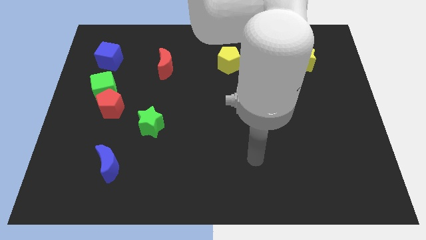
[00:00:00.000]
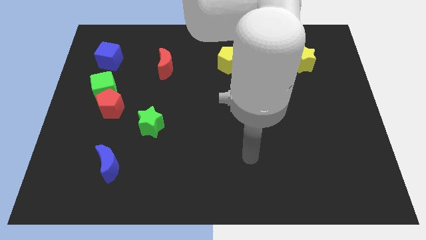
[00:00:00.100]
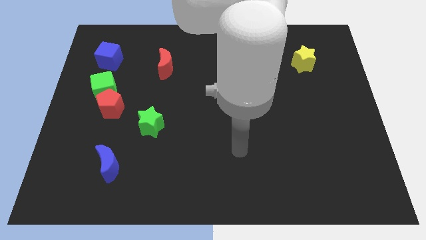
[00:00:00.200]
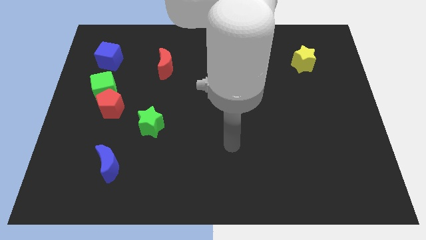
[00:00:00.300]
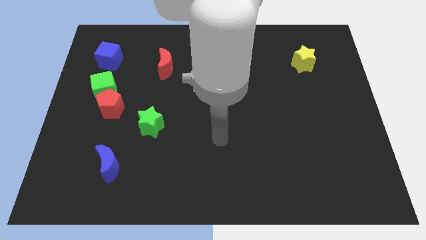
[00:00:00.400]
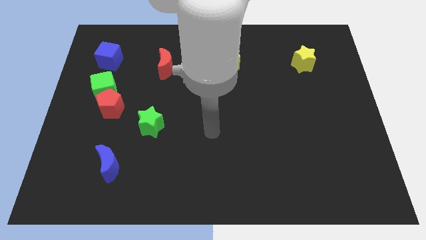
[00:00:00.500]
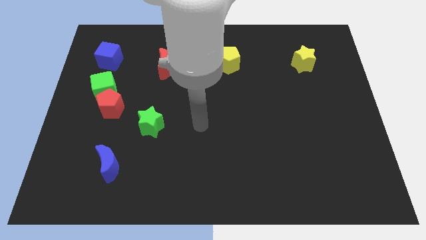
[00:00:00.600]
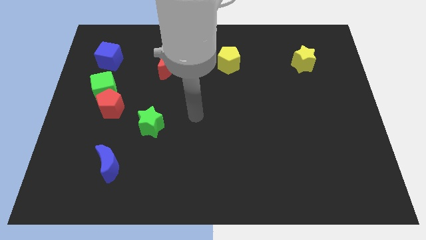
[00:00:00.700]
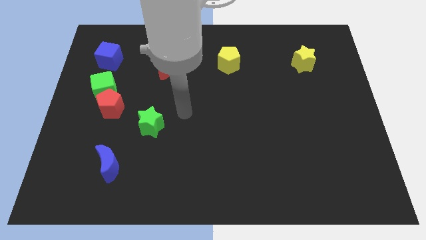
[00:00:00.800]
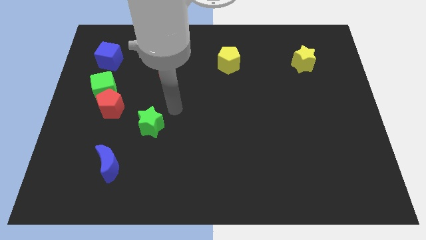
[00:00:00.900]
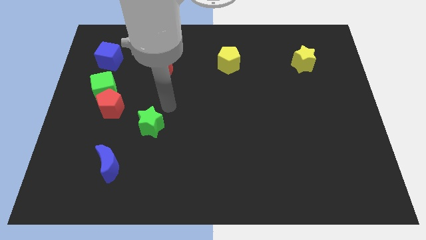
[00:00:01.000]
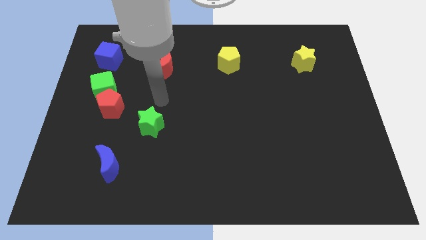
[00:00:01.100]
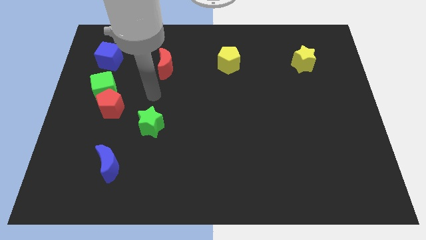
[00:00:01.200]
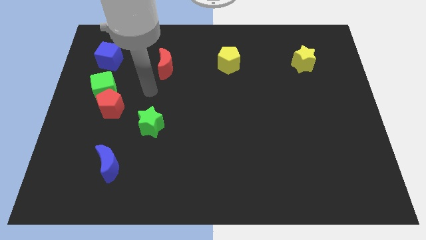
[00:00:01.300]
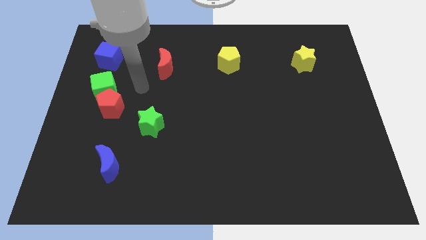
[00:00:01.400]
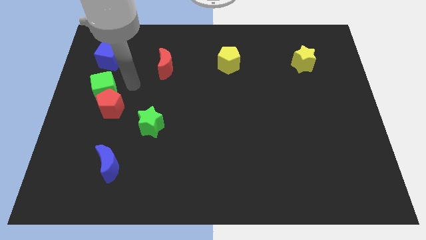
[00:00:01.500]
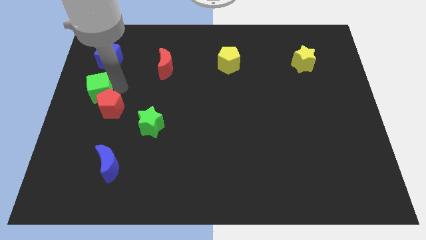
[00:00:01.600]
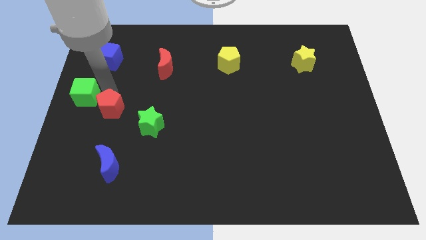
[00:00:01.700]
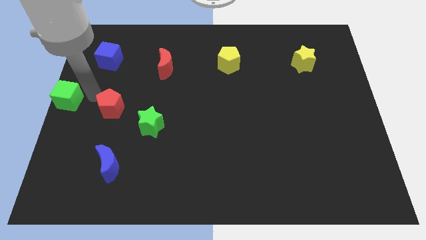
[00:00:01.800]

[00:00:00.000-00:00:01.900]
separate the red pentagon from the green cube

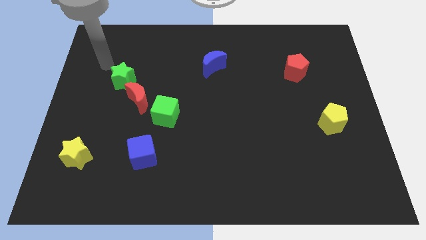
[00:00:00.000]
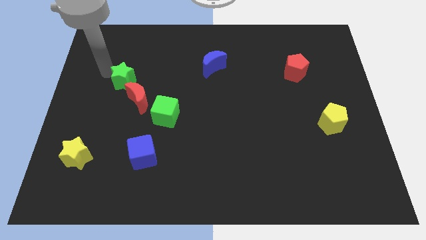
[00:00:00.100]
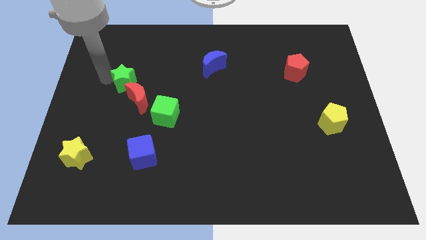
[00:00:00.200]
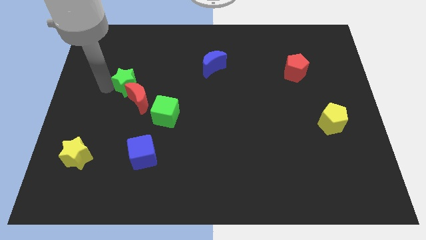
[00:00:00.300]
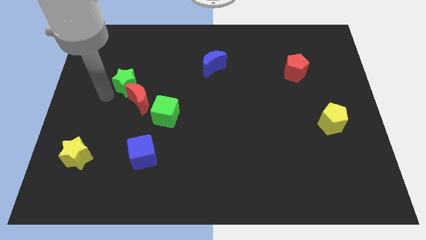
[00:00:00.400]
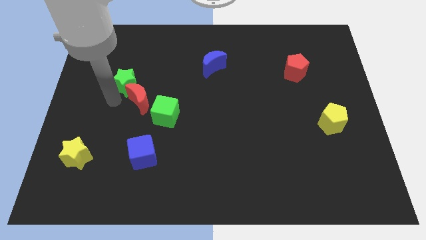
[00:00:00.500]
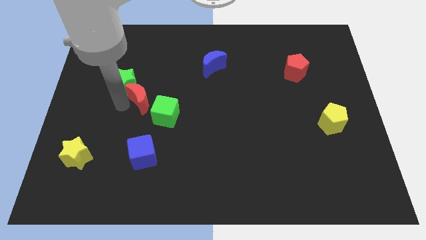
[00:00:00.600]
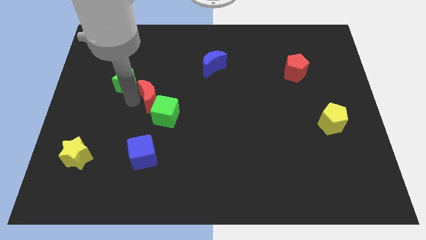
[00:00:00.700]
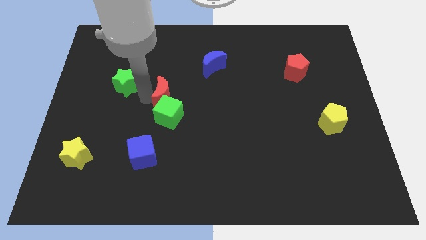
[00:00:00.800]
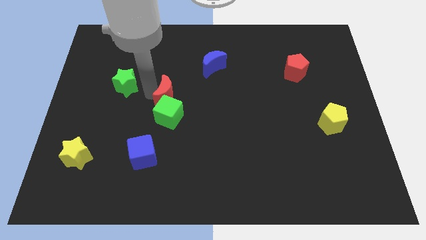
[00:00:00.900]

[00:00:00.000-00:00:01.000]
move the green star away from the red moon

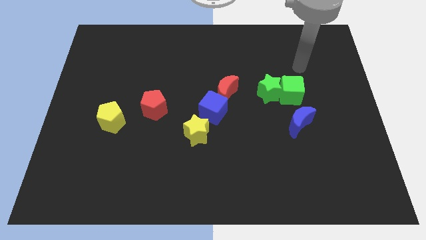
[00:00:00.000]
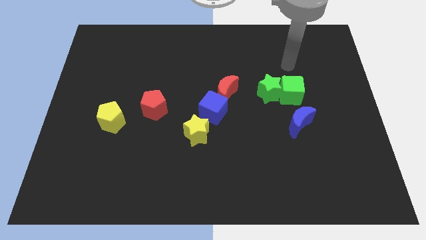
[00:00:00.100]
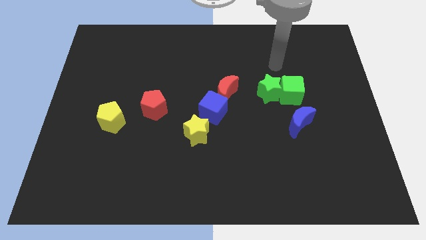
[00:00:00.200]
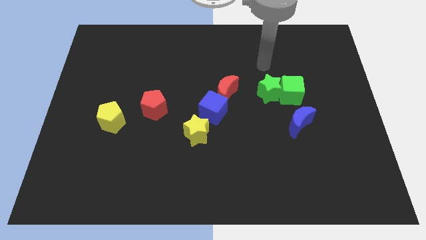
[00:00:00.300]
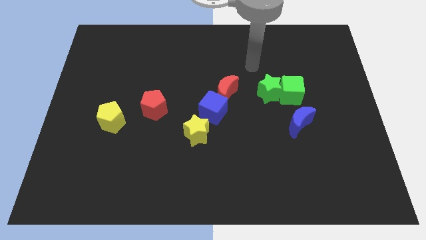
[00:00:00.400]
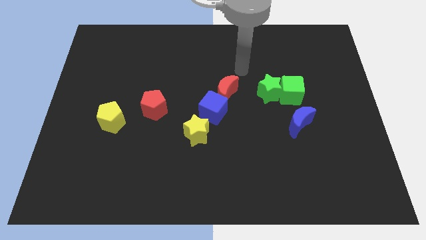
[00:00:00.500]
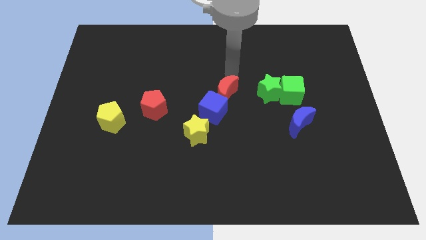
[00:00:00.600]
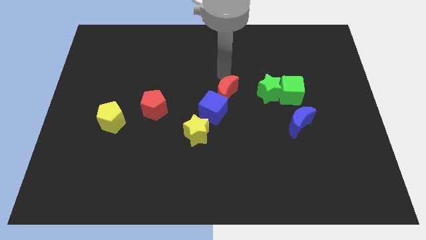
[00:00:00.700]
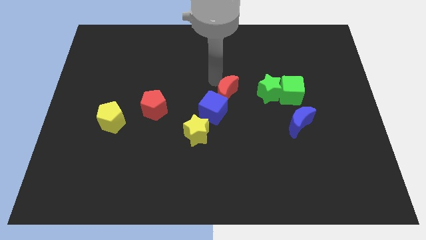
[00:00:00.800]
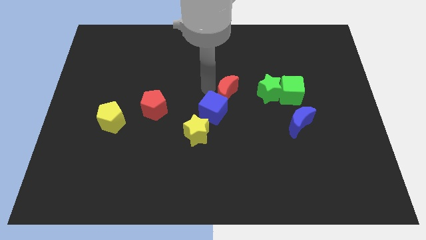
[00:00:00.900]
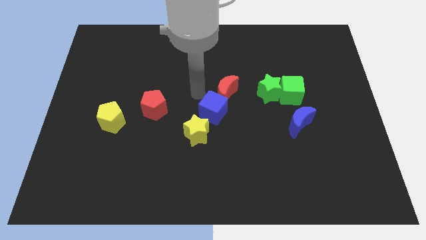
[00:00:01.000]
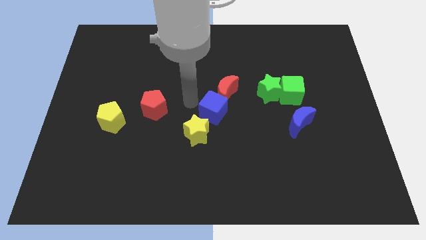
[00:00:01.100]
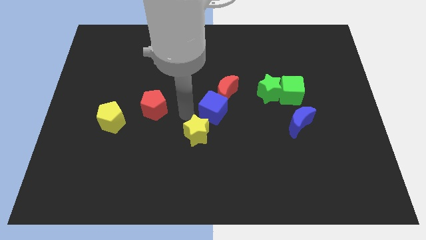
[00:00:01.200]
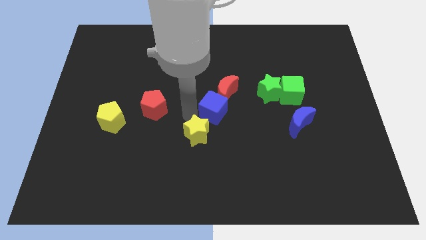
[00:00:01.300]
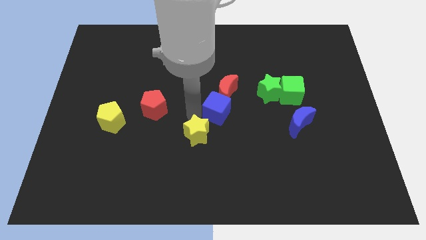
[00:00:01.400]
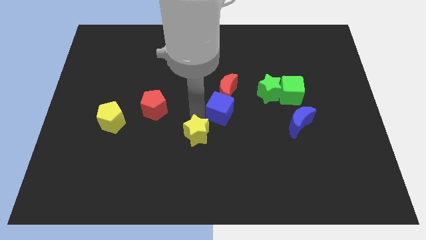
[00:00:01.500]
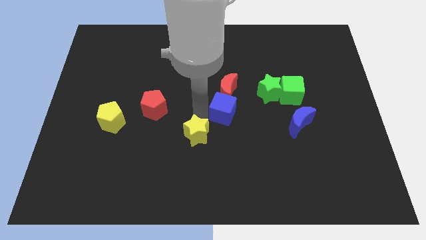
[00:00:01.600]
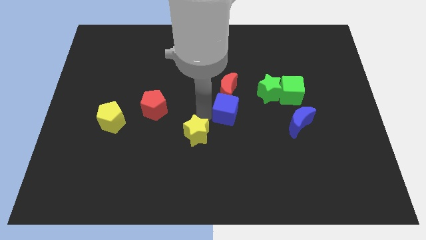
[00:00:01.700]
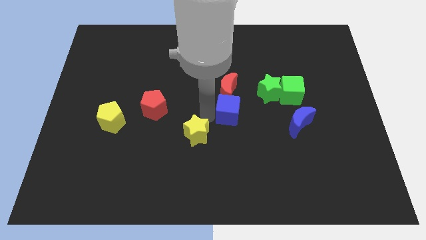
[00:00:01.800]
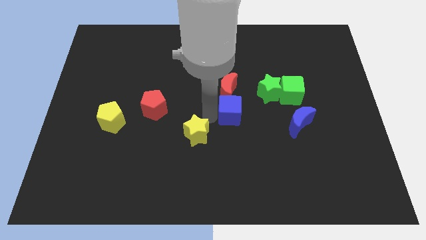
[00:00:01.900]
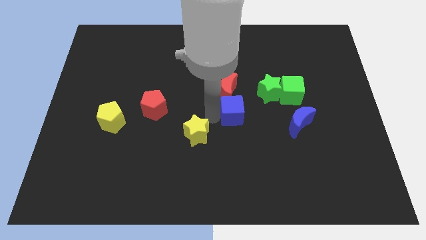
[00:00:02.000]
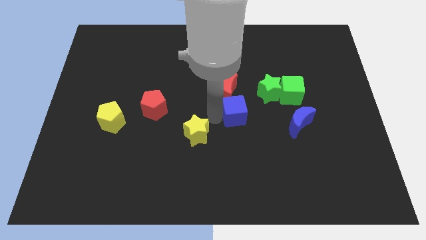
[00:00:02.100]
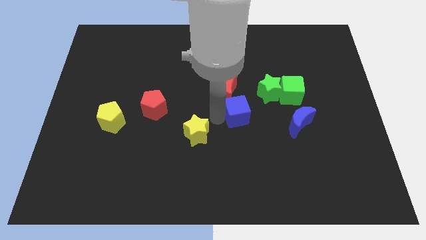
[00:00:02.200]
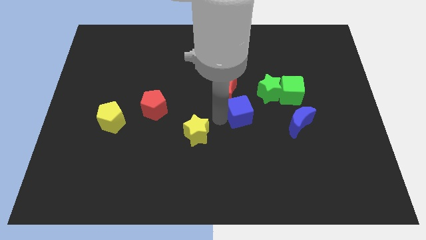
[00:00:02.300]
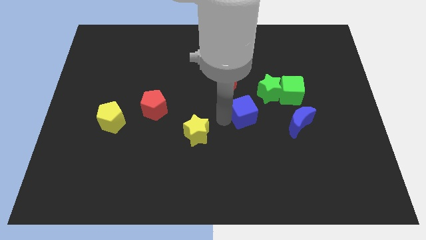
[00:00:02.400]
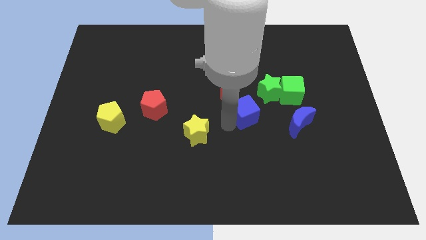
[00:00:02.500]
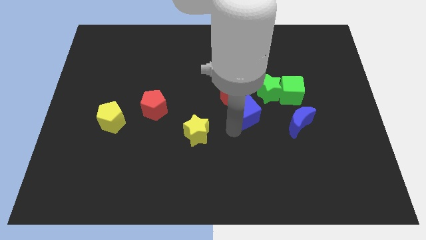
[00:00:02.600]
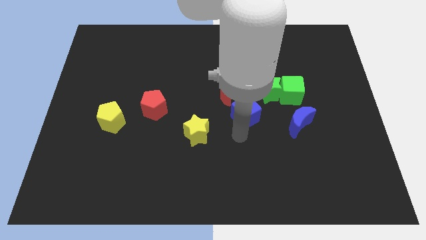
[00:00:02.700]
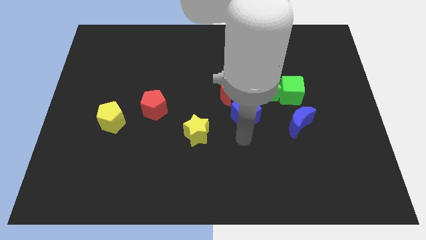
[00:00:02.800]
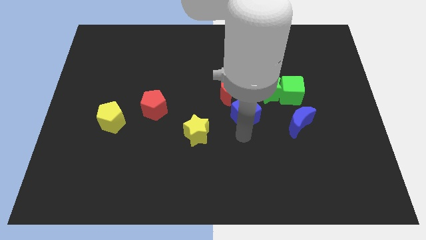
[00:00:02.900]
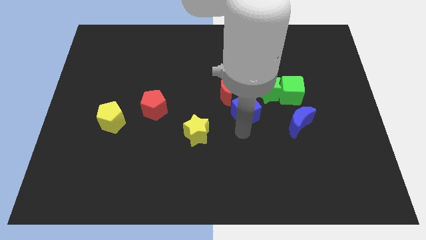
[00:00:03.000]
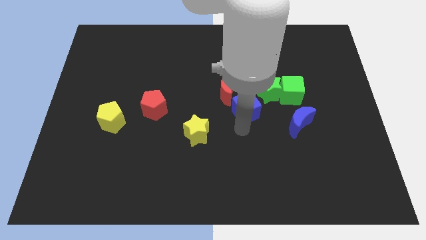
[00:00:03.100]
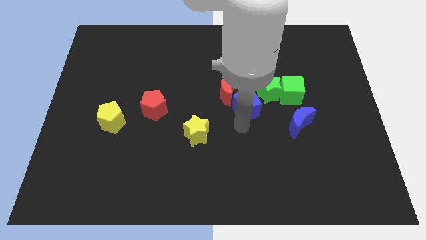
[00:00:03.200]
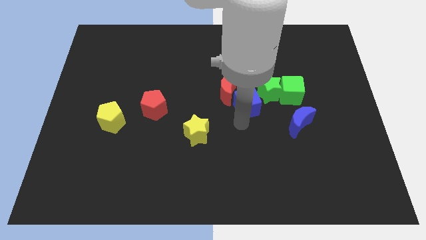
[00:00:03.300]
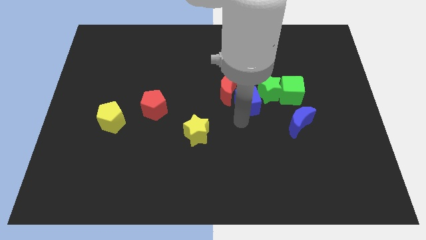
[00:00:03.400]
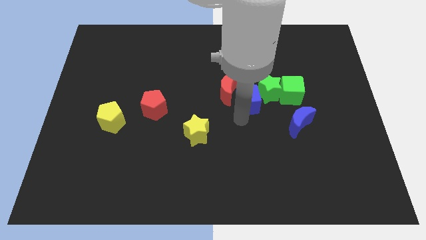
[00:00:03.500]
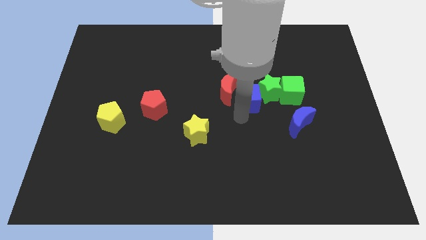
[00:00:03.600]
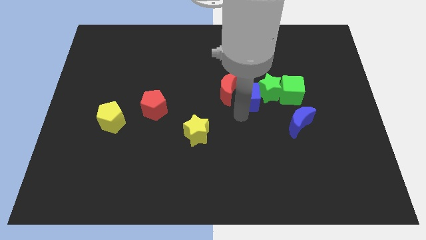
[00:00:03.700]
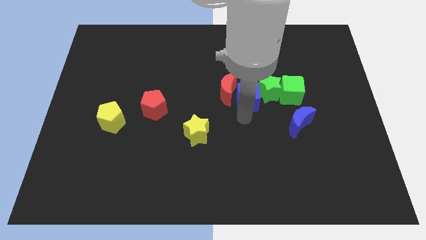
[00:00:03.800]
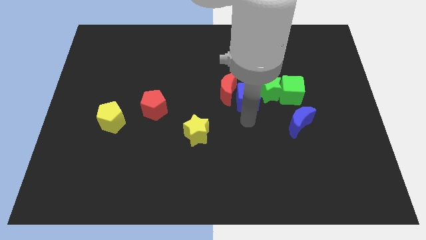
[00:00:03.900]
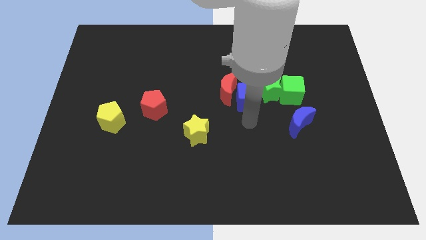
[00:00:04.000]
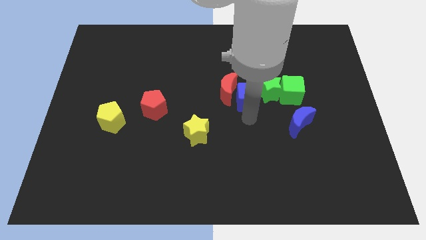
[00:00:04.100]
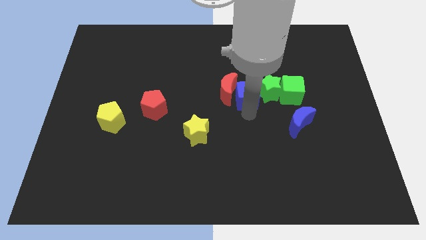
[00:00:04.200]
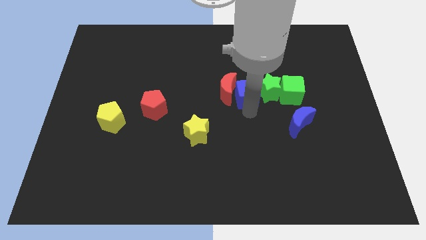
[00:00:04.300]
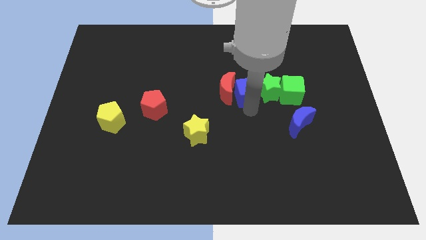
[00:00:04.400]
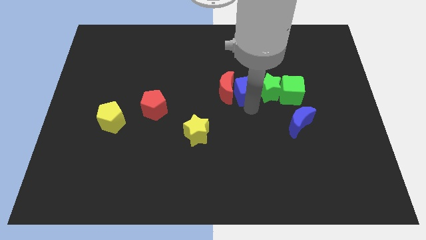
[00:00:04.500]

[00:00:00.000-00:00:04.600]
move the blue cube away from the red moon and yellow star

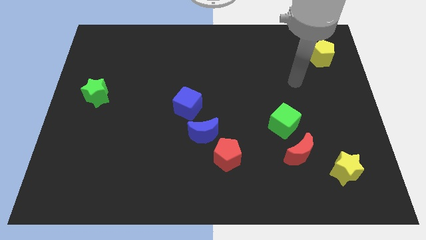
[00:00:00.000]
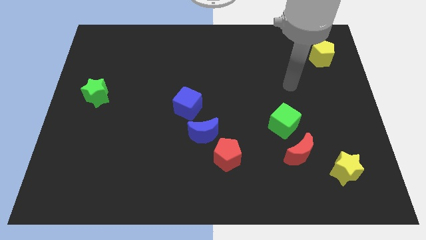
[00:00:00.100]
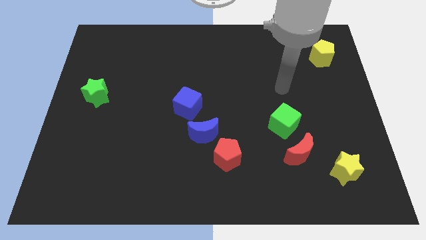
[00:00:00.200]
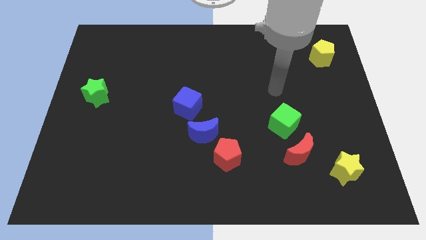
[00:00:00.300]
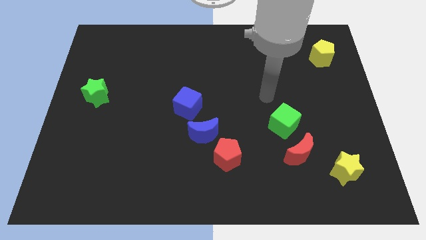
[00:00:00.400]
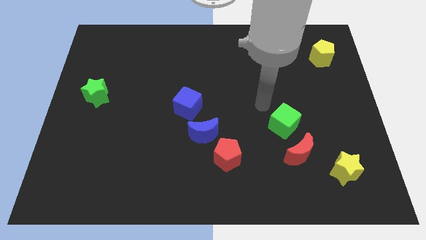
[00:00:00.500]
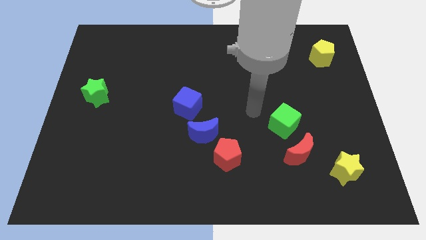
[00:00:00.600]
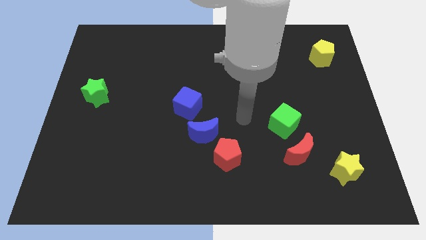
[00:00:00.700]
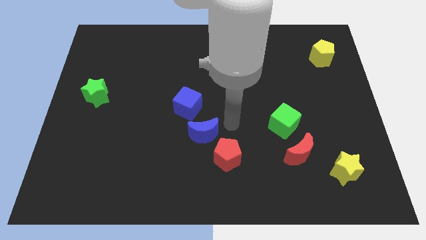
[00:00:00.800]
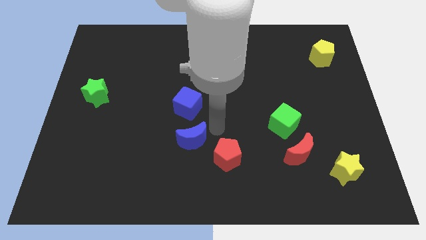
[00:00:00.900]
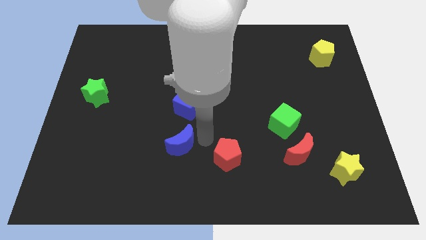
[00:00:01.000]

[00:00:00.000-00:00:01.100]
pull the red pentagon apart from the blue moon

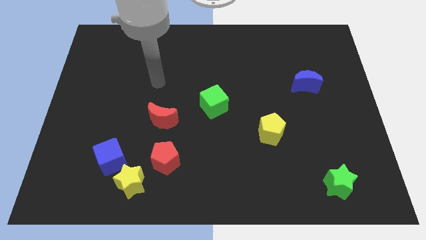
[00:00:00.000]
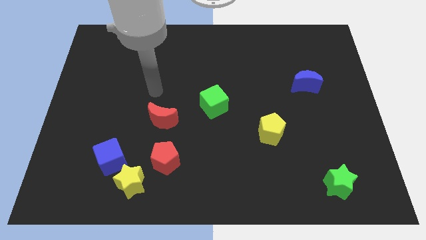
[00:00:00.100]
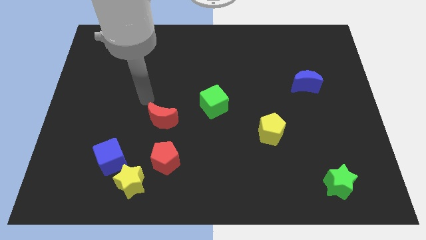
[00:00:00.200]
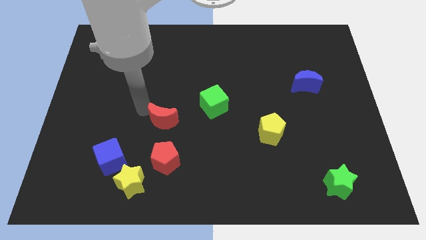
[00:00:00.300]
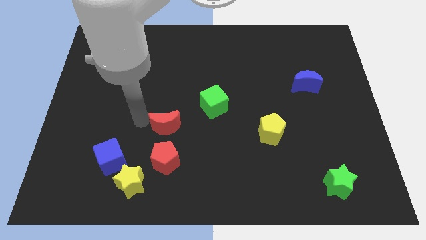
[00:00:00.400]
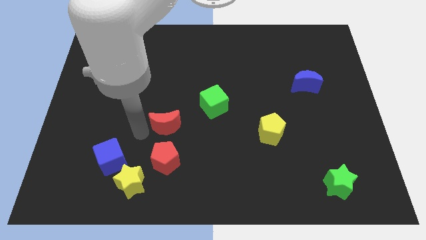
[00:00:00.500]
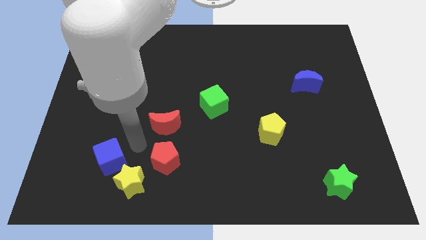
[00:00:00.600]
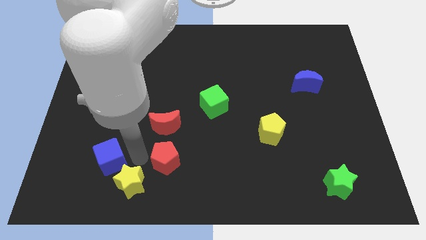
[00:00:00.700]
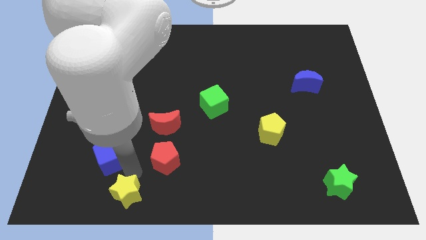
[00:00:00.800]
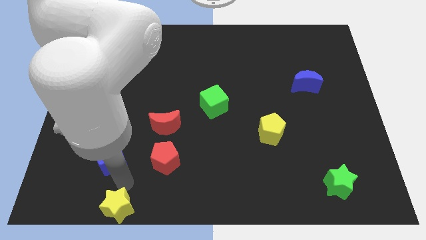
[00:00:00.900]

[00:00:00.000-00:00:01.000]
pull the blue cube apart from the yellow star
